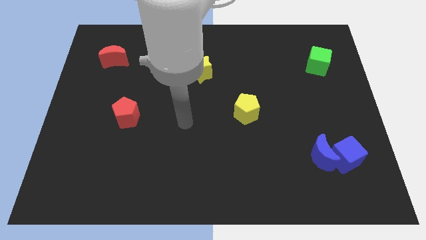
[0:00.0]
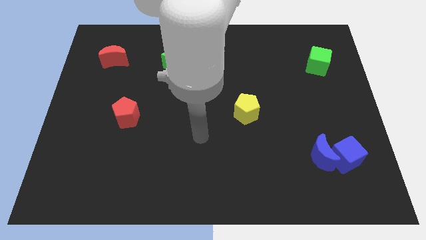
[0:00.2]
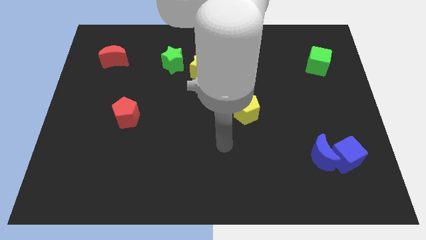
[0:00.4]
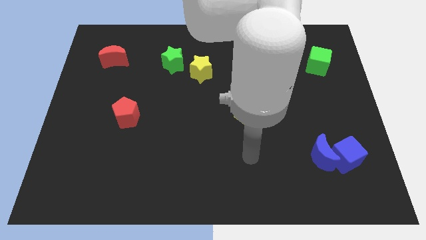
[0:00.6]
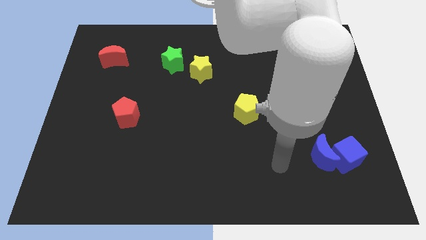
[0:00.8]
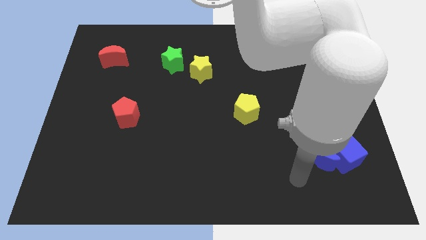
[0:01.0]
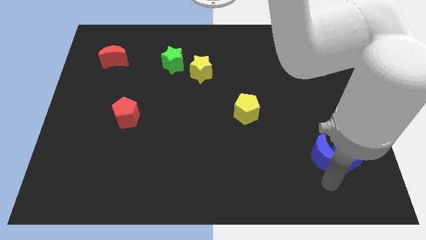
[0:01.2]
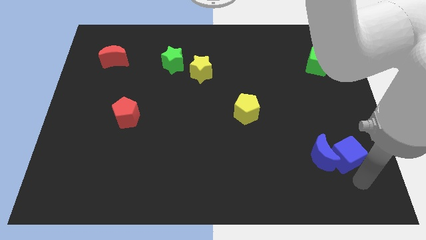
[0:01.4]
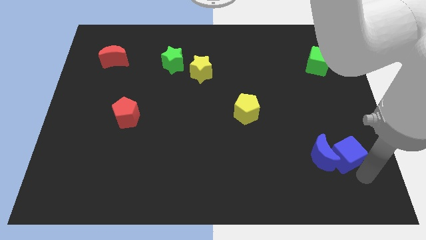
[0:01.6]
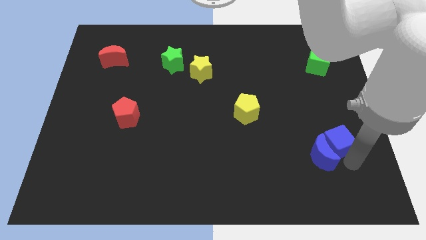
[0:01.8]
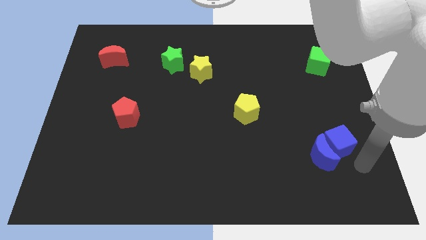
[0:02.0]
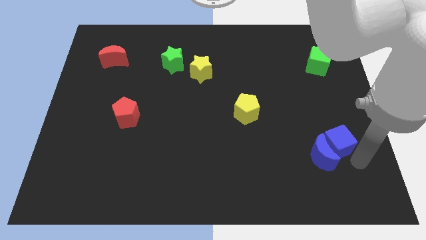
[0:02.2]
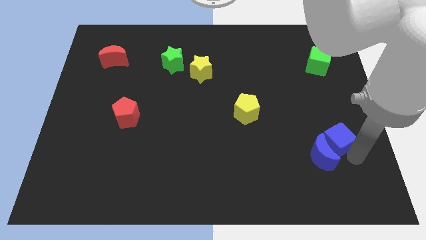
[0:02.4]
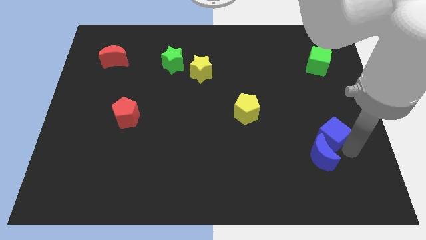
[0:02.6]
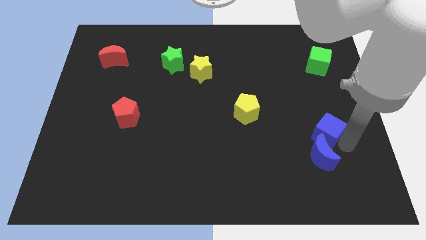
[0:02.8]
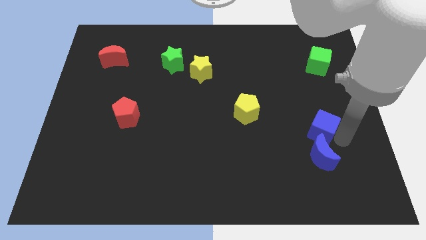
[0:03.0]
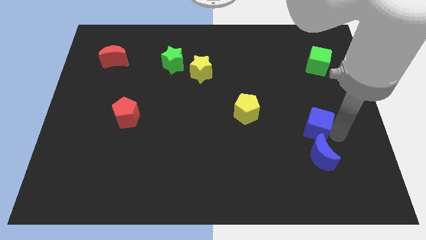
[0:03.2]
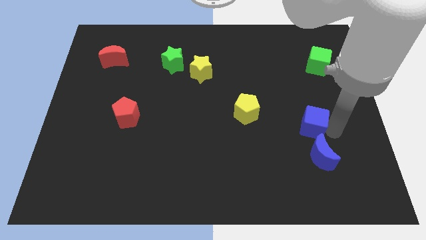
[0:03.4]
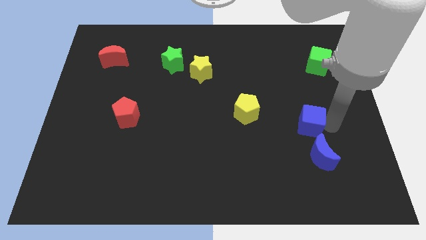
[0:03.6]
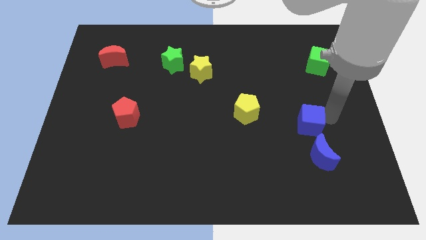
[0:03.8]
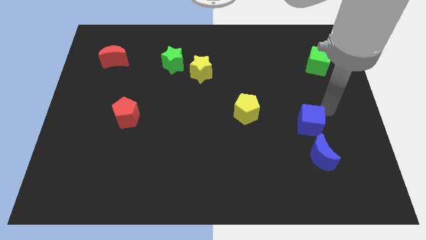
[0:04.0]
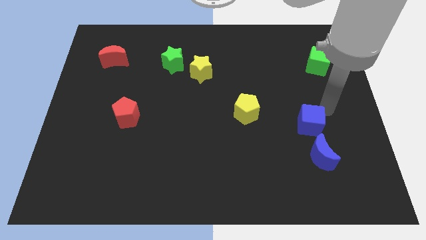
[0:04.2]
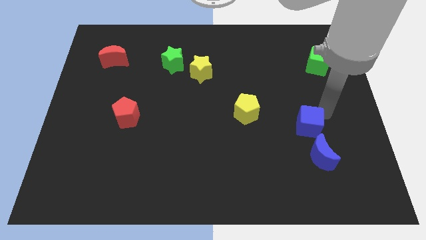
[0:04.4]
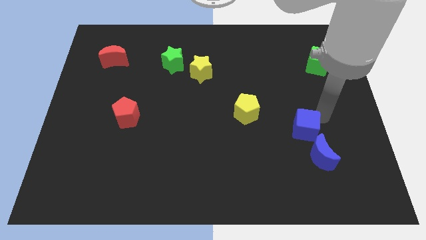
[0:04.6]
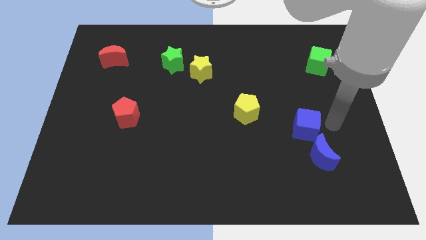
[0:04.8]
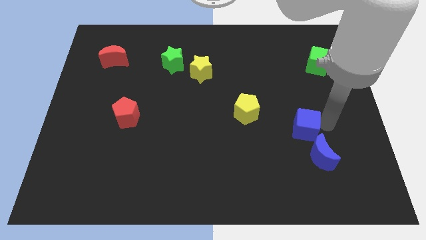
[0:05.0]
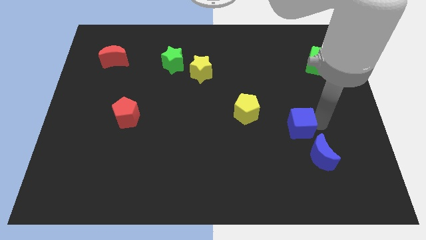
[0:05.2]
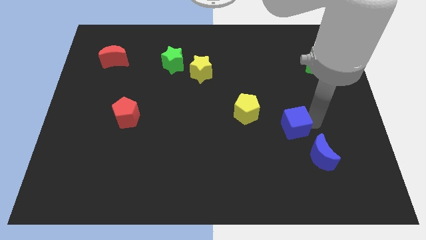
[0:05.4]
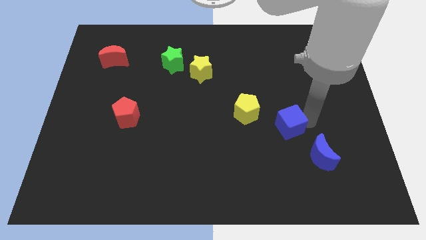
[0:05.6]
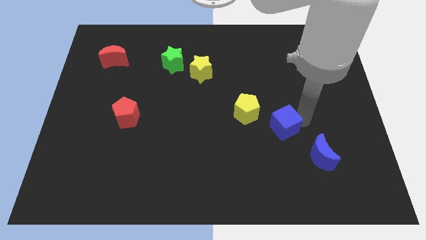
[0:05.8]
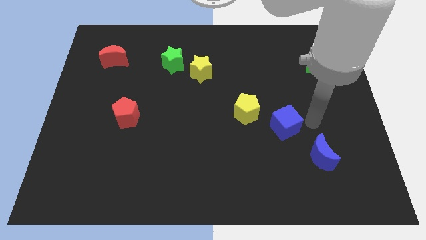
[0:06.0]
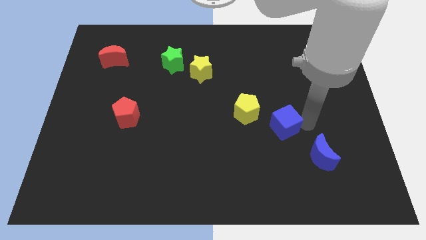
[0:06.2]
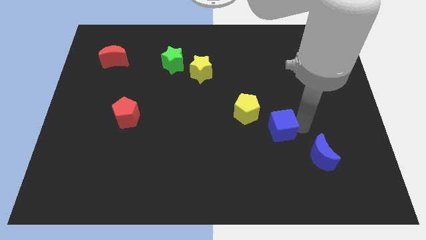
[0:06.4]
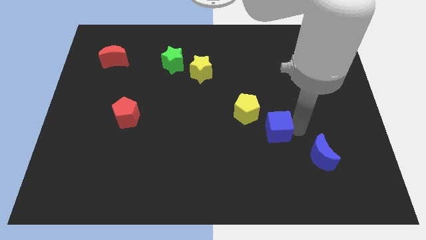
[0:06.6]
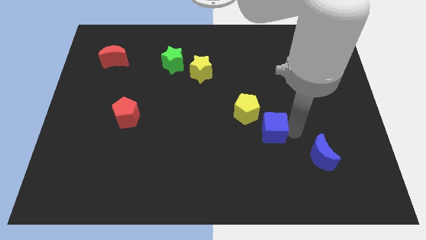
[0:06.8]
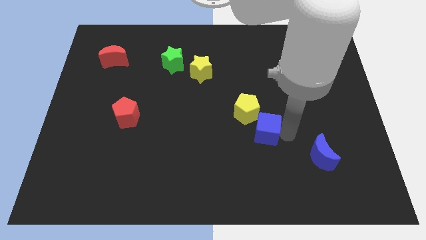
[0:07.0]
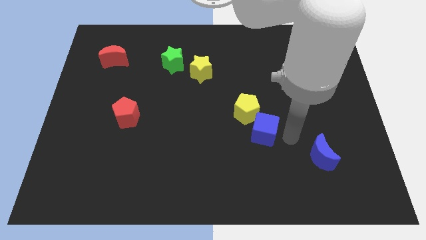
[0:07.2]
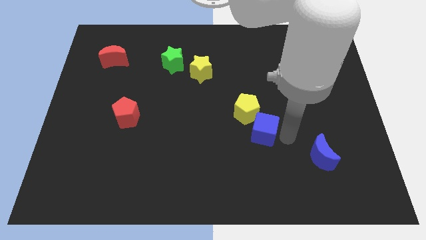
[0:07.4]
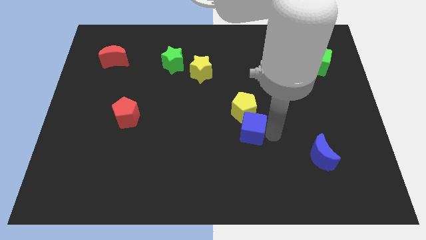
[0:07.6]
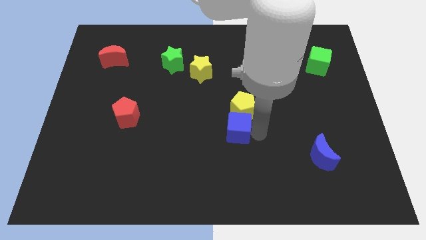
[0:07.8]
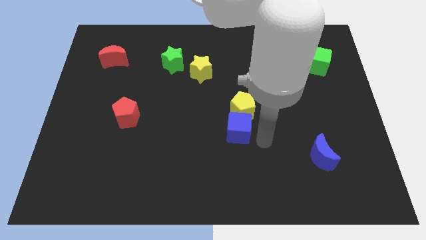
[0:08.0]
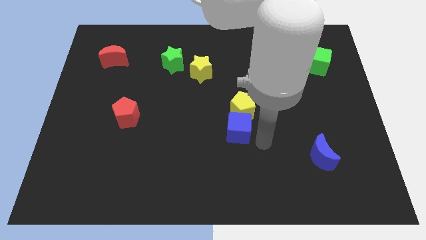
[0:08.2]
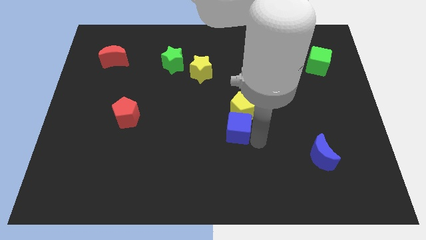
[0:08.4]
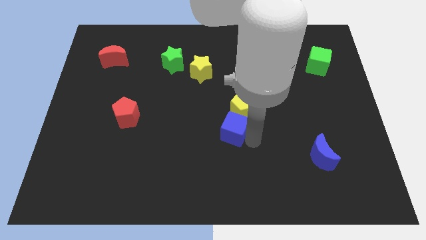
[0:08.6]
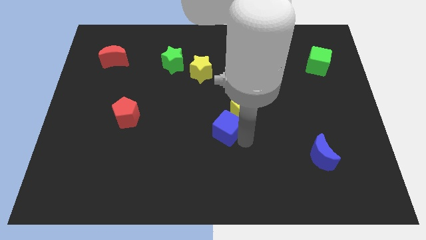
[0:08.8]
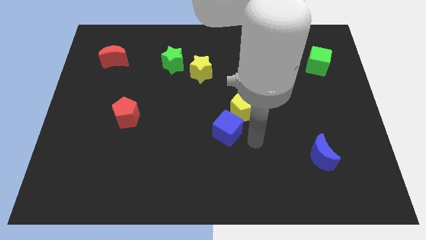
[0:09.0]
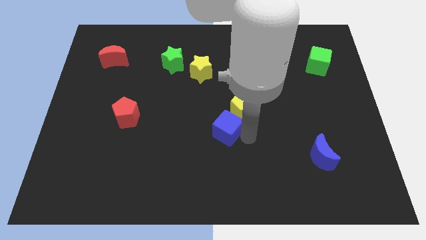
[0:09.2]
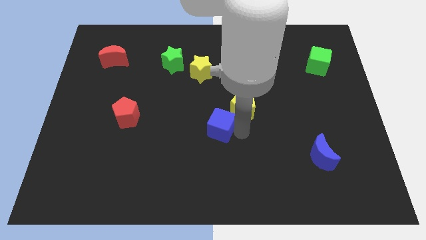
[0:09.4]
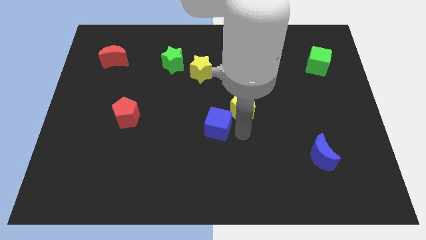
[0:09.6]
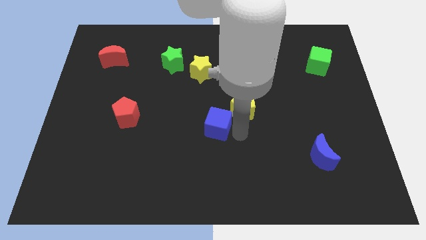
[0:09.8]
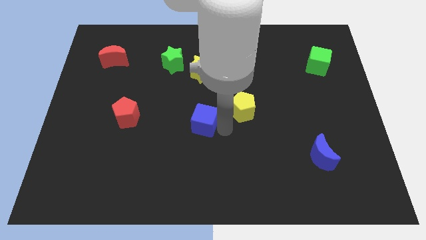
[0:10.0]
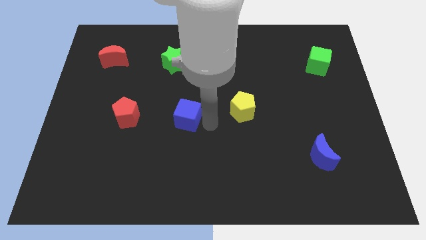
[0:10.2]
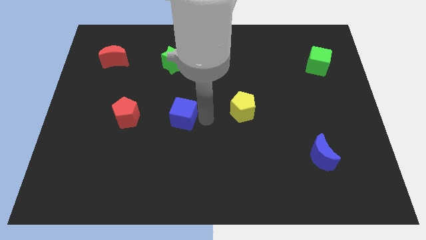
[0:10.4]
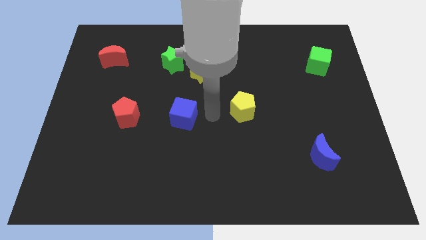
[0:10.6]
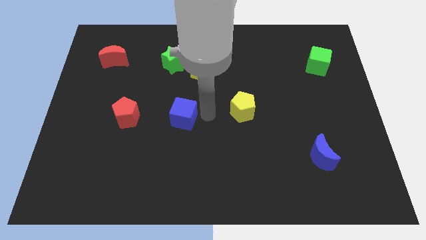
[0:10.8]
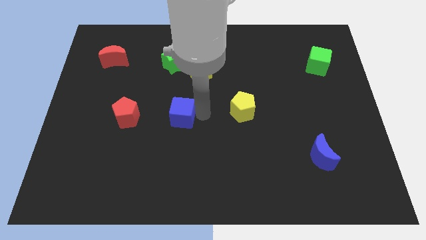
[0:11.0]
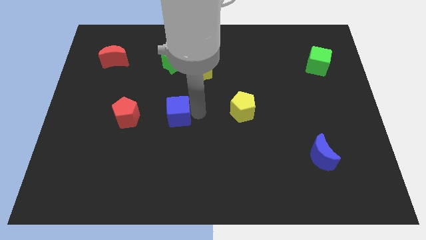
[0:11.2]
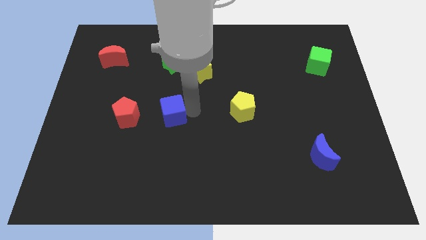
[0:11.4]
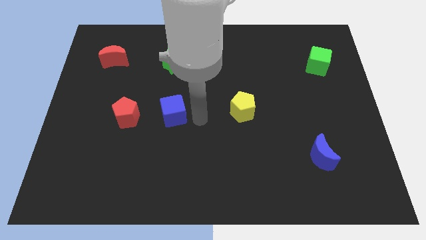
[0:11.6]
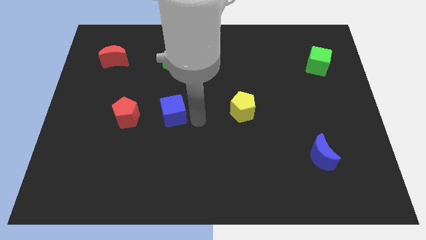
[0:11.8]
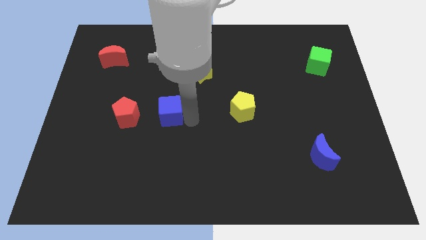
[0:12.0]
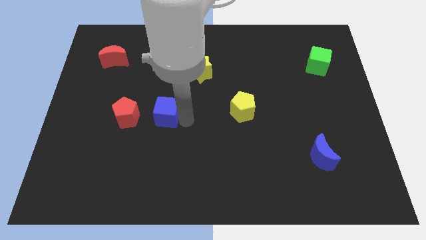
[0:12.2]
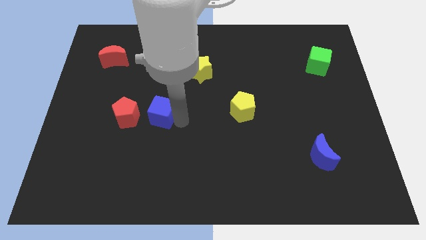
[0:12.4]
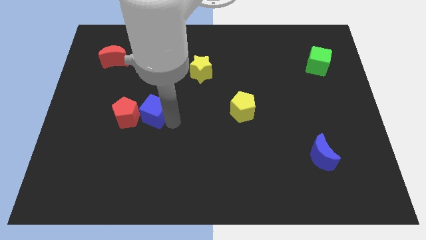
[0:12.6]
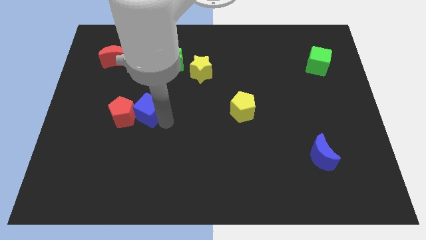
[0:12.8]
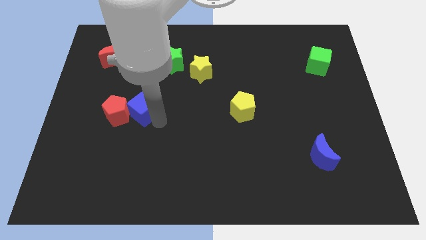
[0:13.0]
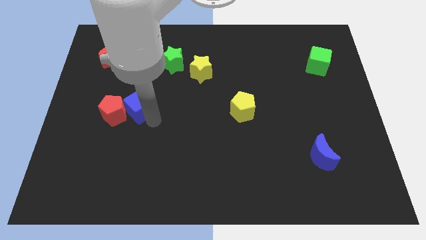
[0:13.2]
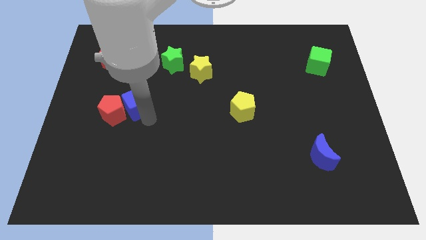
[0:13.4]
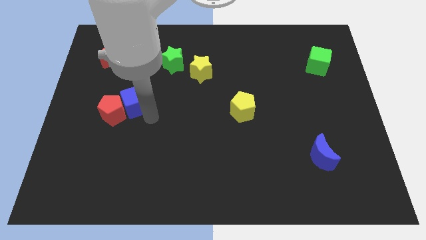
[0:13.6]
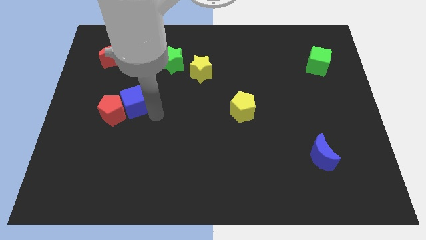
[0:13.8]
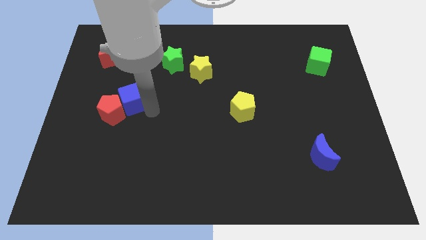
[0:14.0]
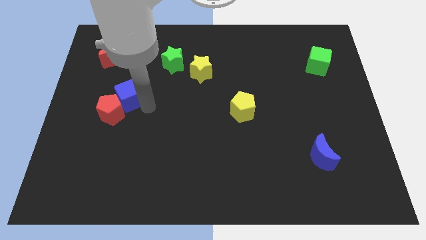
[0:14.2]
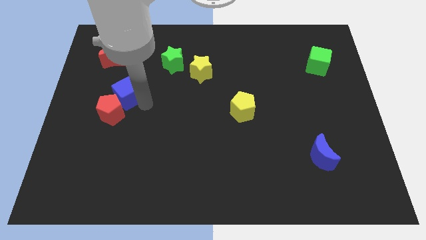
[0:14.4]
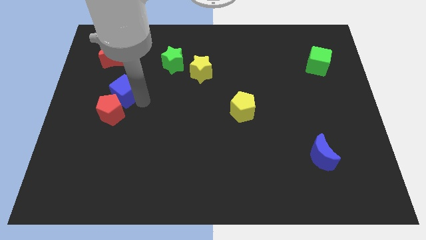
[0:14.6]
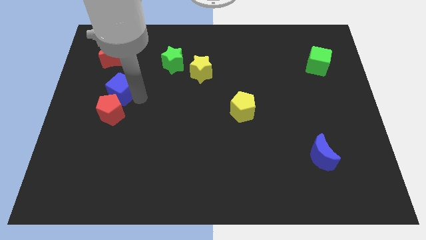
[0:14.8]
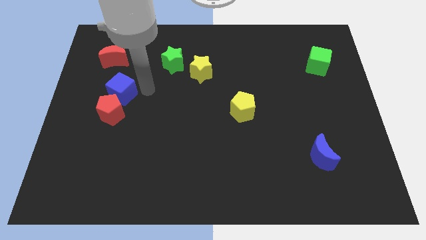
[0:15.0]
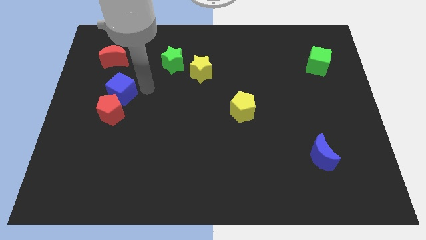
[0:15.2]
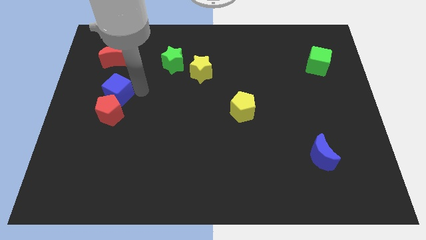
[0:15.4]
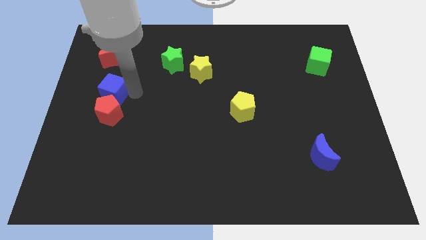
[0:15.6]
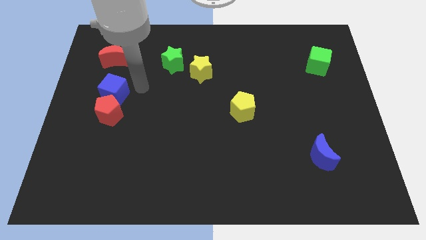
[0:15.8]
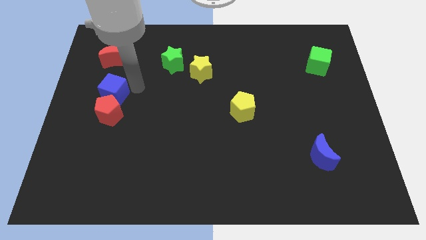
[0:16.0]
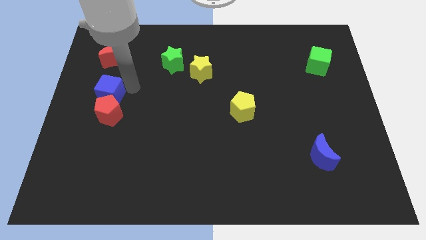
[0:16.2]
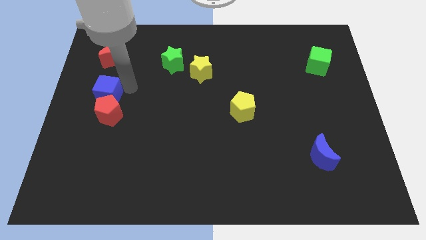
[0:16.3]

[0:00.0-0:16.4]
put the blue cube to the center left
